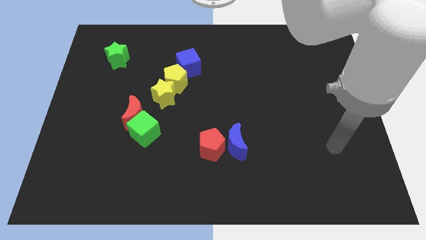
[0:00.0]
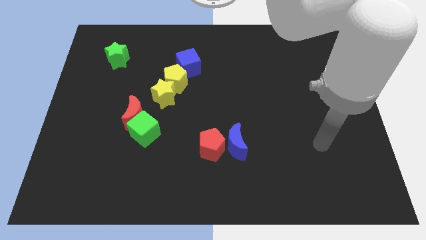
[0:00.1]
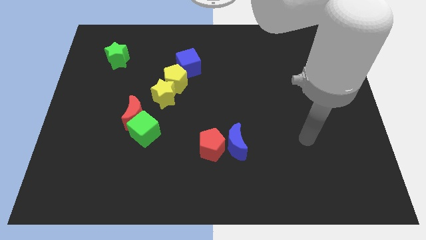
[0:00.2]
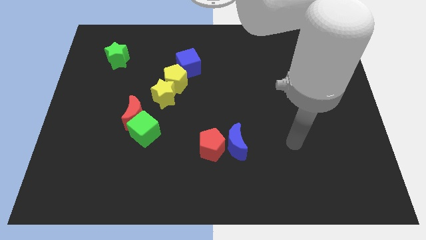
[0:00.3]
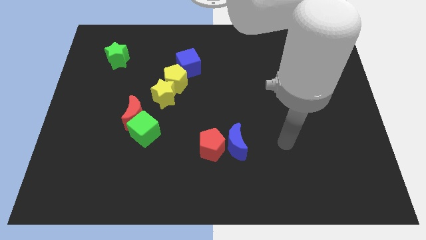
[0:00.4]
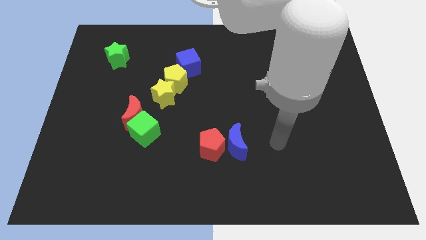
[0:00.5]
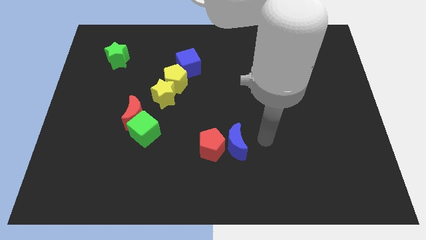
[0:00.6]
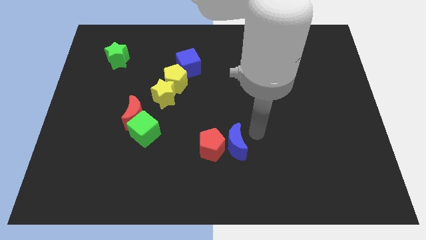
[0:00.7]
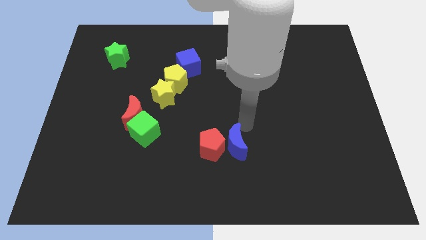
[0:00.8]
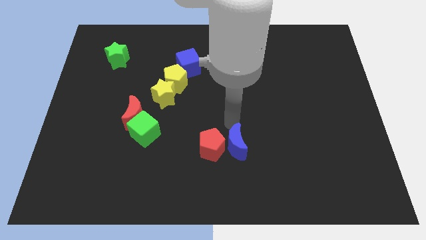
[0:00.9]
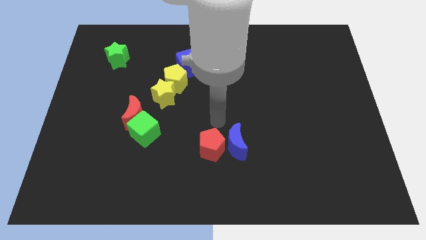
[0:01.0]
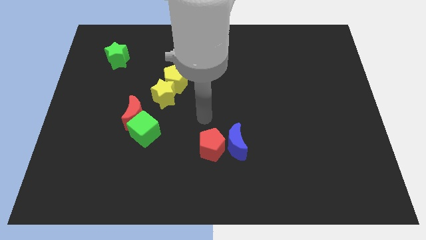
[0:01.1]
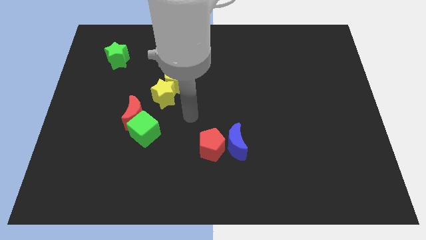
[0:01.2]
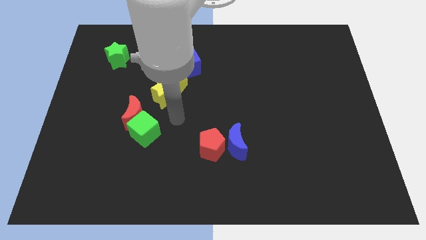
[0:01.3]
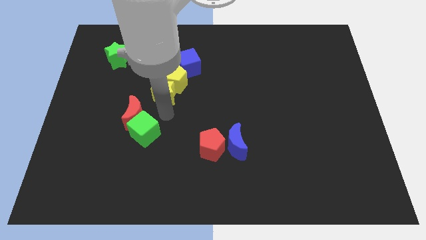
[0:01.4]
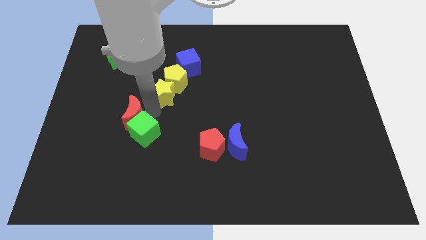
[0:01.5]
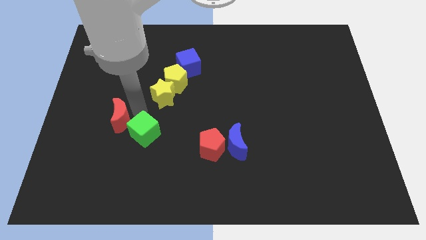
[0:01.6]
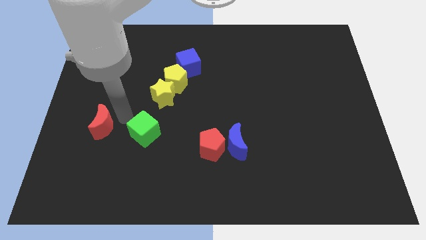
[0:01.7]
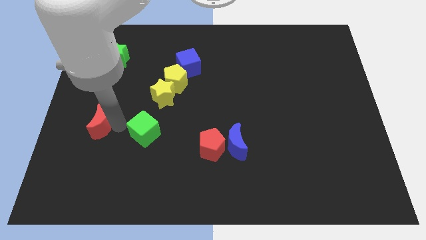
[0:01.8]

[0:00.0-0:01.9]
move the green cube away from the red moon

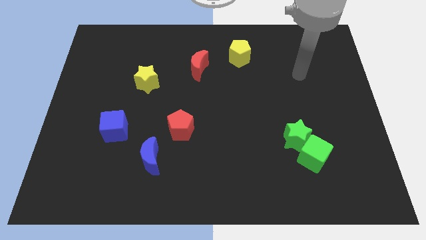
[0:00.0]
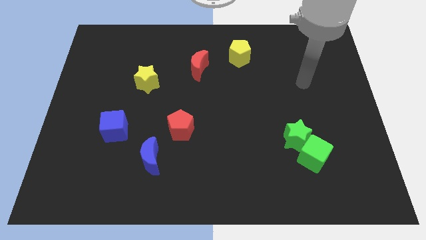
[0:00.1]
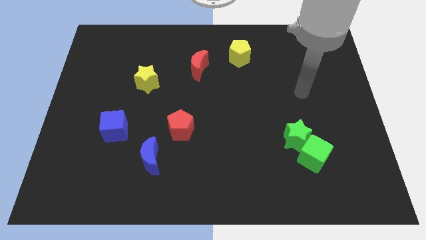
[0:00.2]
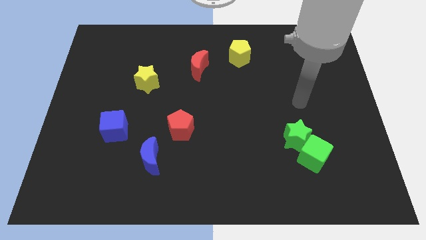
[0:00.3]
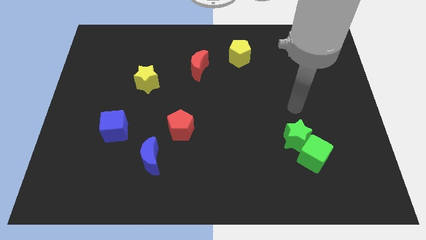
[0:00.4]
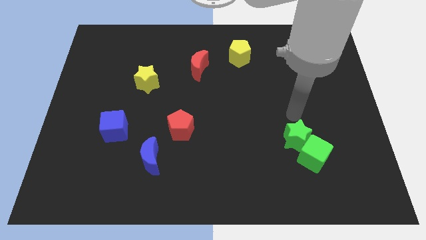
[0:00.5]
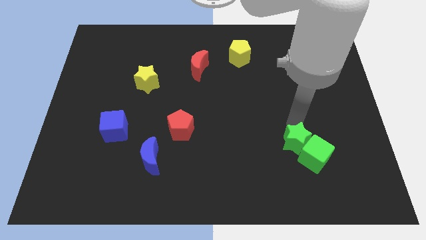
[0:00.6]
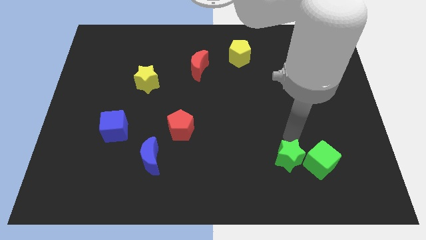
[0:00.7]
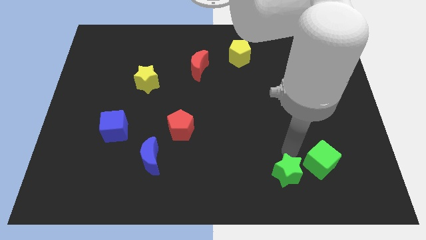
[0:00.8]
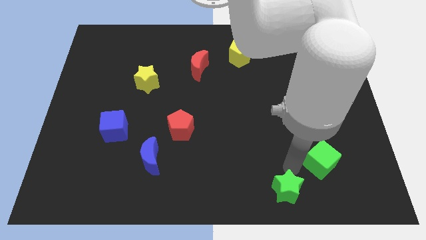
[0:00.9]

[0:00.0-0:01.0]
separate the green cube from the green star

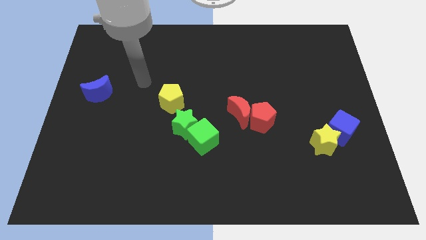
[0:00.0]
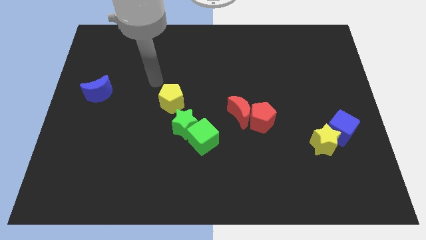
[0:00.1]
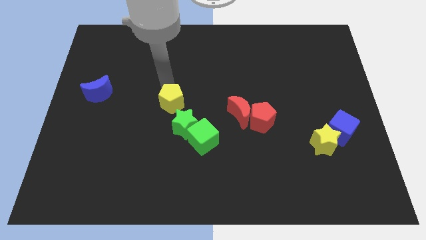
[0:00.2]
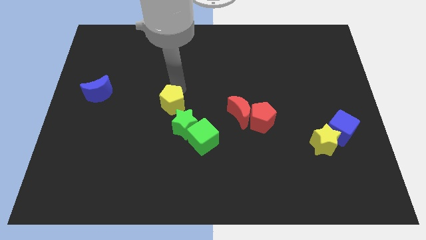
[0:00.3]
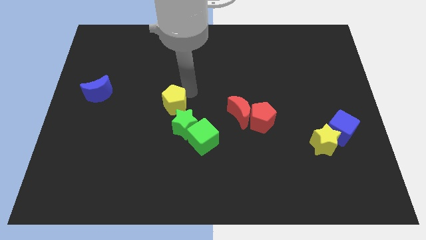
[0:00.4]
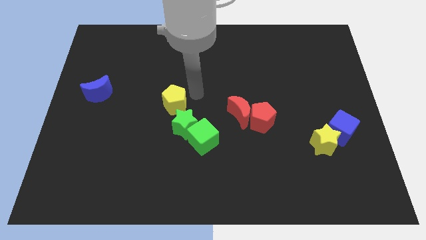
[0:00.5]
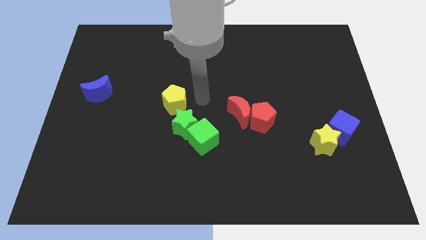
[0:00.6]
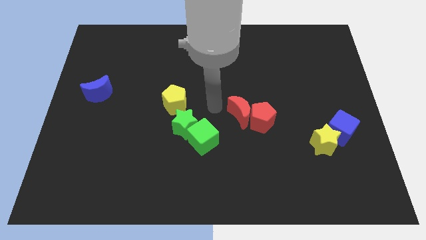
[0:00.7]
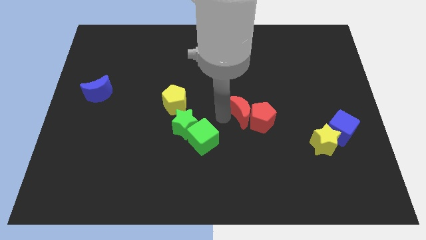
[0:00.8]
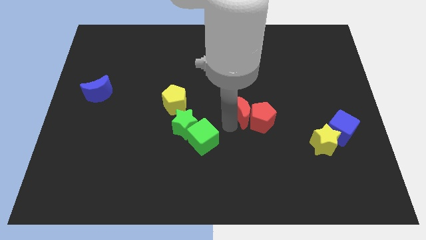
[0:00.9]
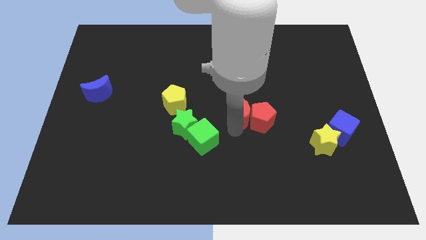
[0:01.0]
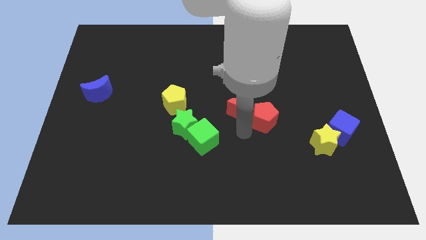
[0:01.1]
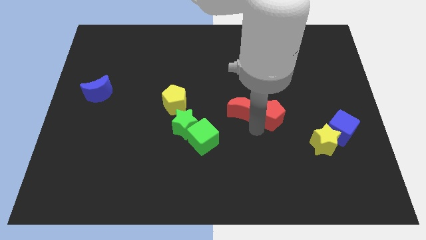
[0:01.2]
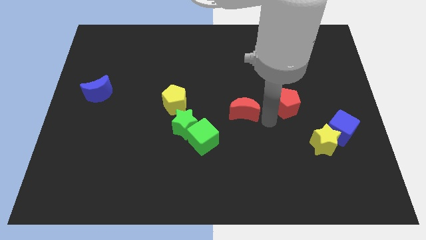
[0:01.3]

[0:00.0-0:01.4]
move the red moon away from the red pentagon

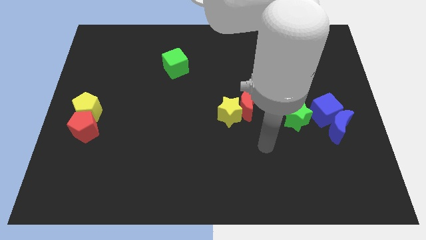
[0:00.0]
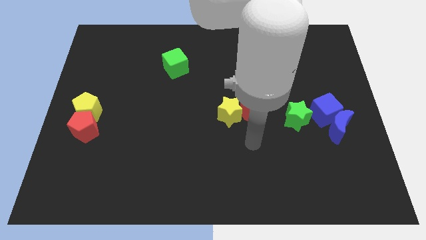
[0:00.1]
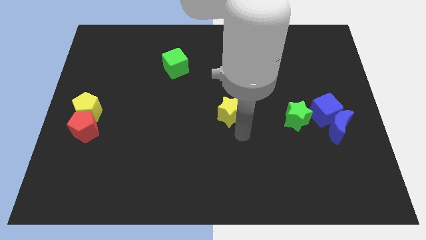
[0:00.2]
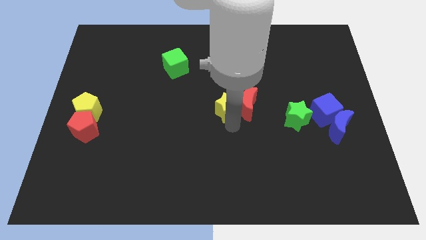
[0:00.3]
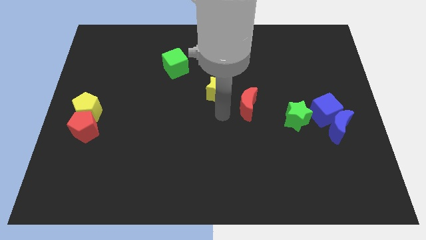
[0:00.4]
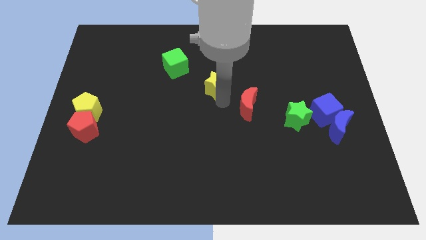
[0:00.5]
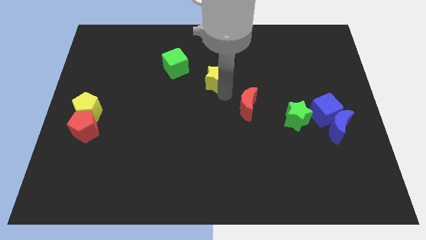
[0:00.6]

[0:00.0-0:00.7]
pull the red moon apart from the yellow star

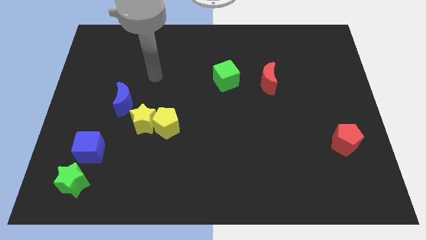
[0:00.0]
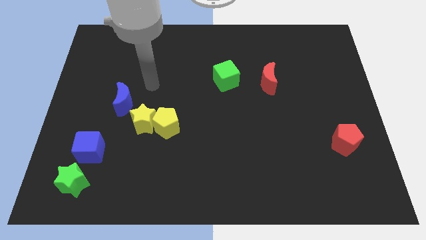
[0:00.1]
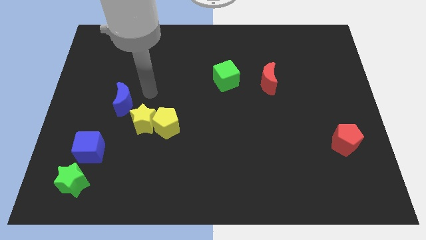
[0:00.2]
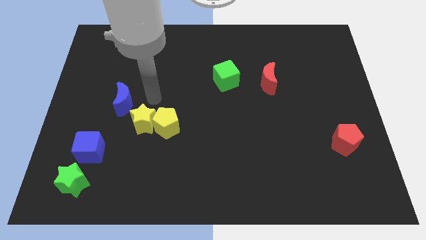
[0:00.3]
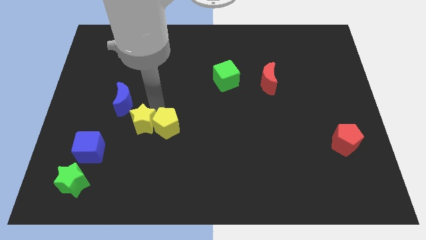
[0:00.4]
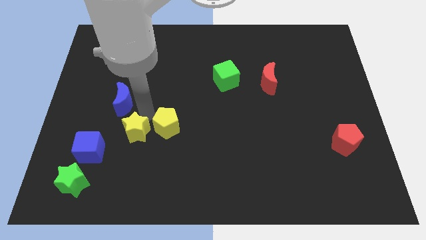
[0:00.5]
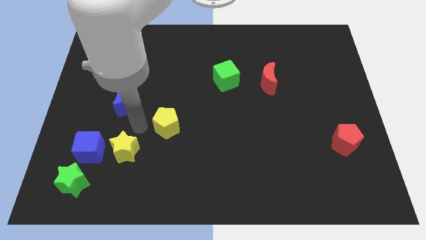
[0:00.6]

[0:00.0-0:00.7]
pull the yellow pentagon apart from the yellow star

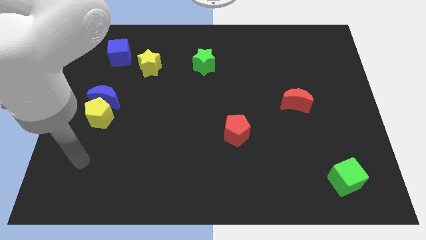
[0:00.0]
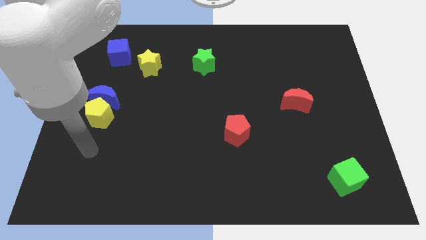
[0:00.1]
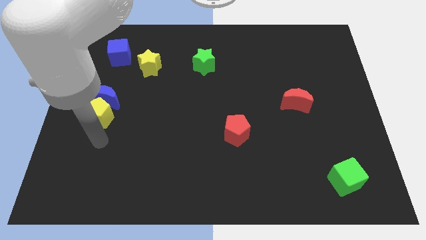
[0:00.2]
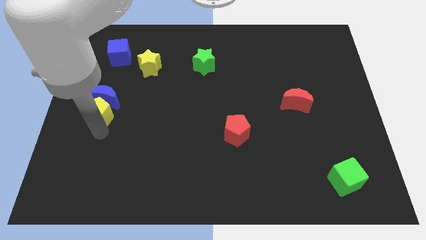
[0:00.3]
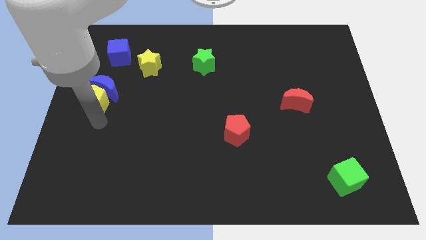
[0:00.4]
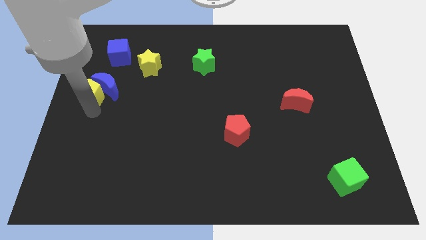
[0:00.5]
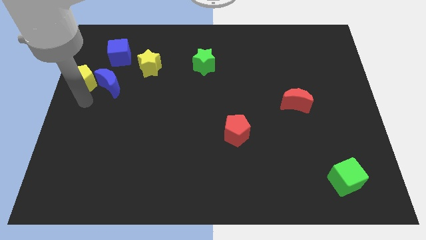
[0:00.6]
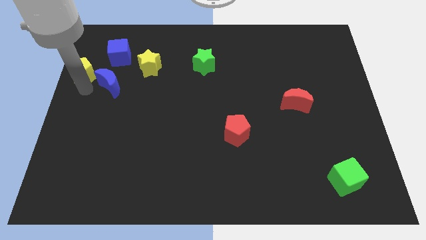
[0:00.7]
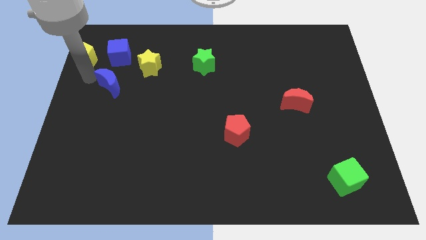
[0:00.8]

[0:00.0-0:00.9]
move the blue moon away from the yellow pentagon

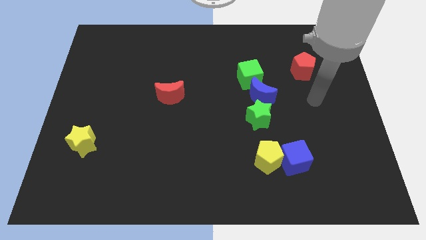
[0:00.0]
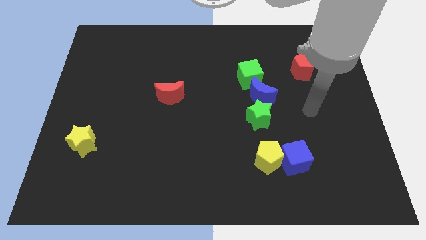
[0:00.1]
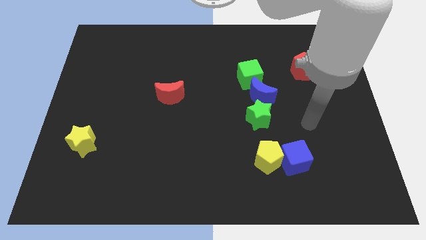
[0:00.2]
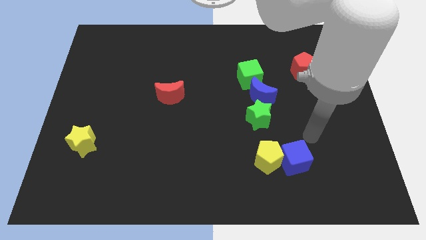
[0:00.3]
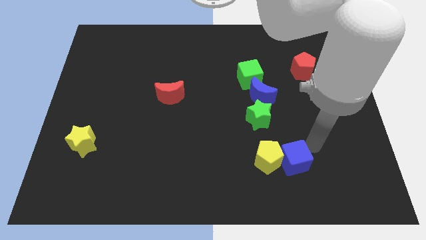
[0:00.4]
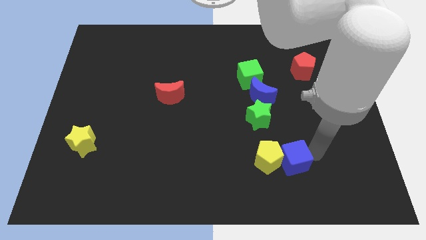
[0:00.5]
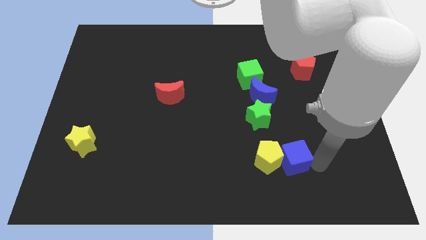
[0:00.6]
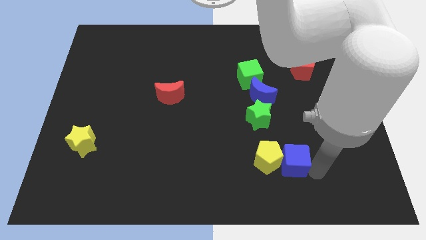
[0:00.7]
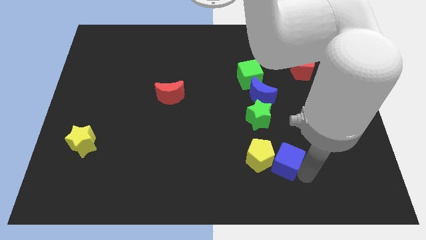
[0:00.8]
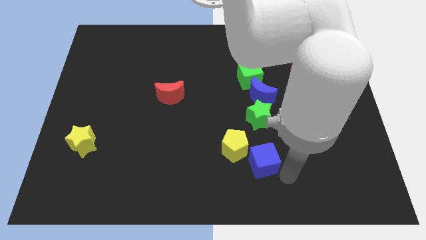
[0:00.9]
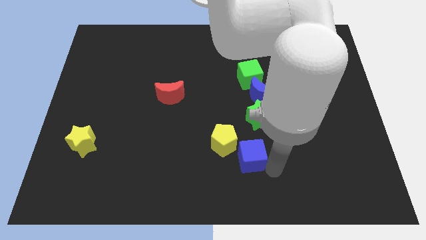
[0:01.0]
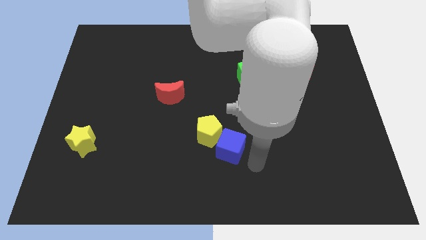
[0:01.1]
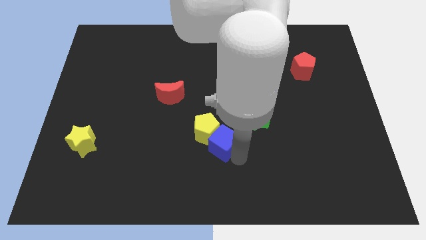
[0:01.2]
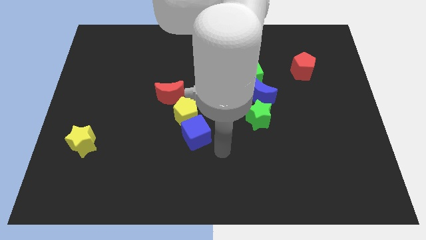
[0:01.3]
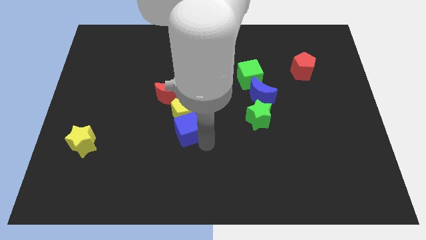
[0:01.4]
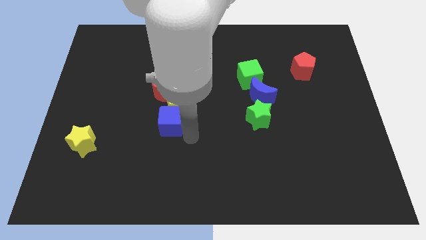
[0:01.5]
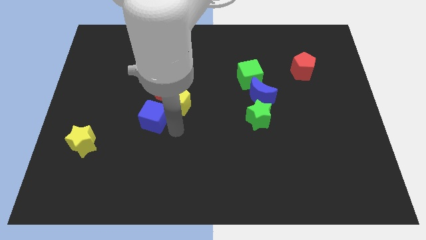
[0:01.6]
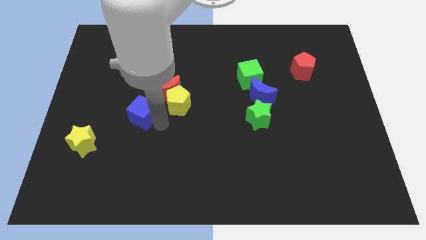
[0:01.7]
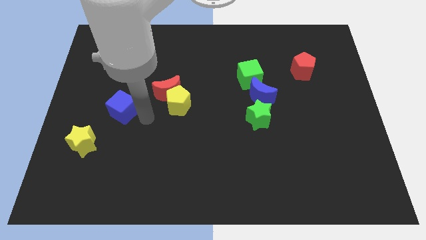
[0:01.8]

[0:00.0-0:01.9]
pull the blue cube apart from the yellow pentagon

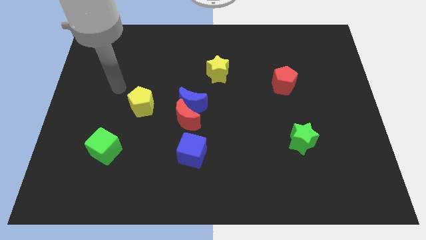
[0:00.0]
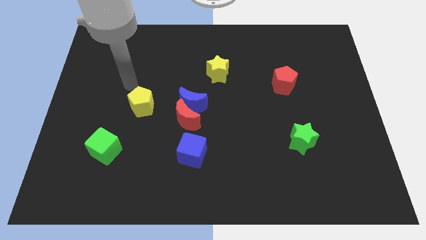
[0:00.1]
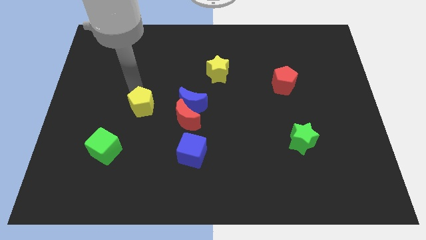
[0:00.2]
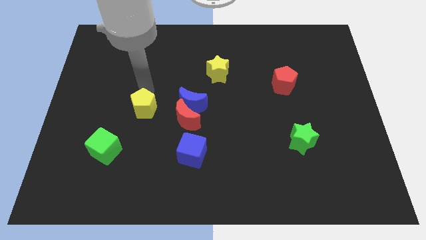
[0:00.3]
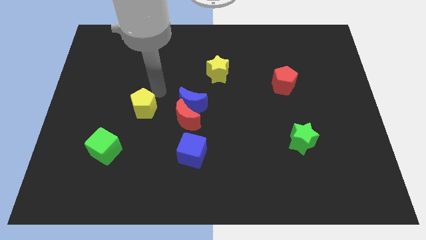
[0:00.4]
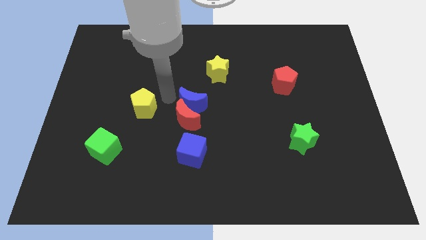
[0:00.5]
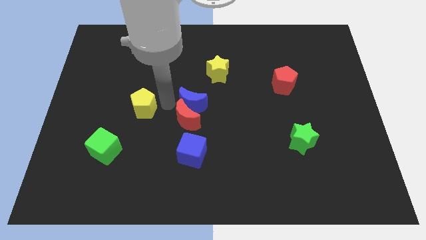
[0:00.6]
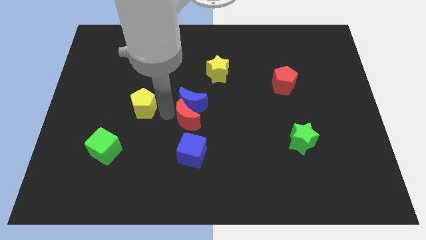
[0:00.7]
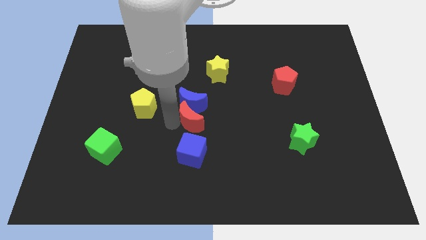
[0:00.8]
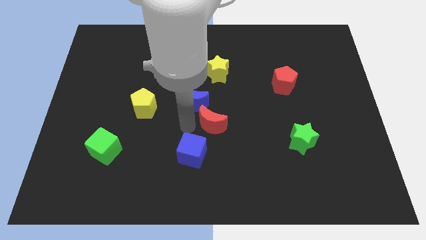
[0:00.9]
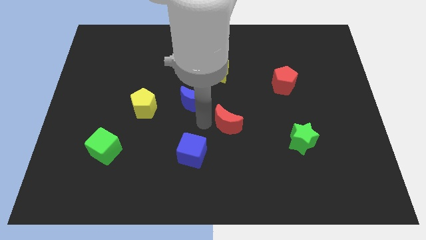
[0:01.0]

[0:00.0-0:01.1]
pull the blue moon apart from the red moon
